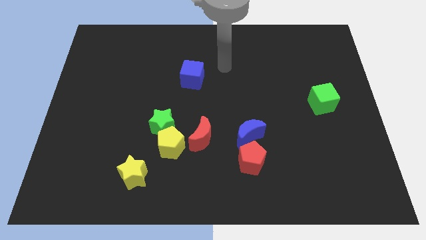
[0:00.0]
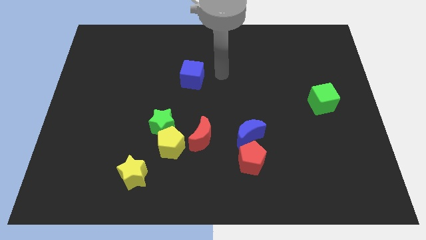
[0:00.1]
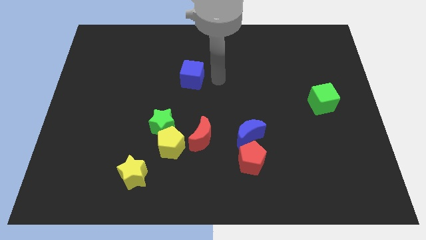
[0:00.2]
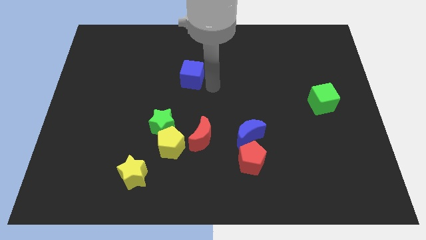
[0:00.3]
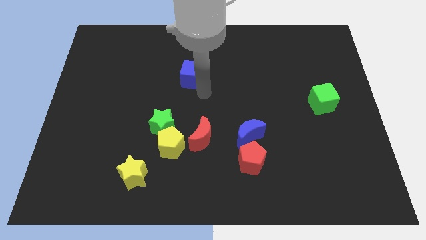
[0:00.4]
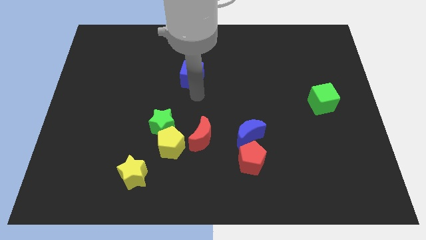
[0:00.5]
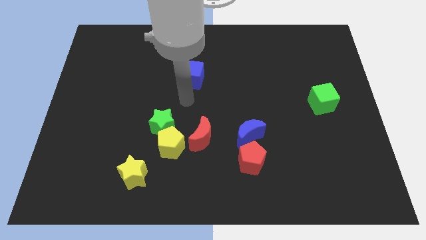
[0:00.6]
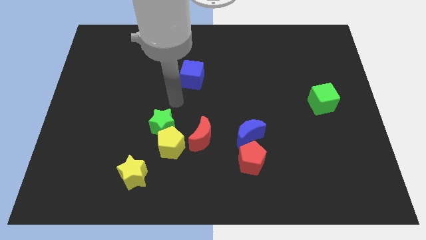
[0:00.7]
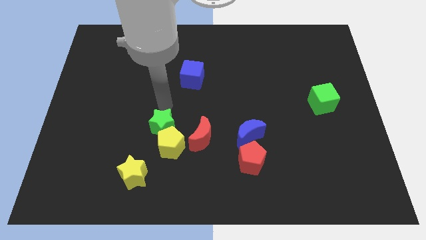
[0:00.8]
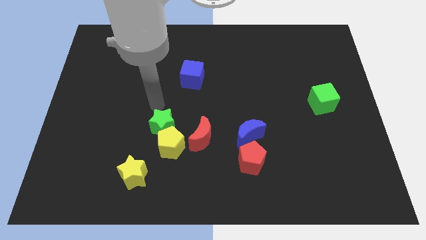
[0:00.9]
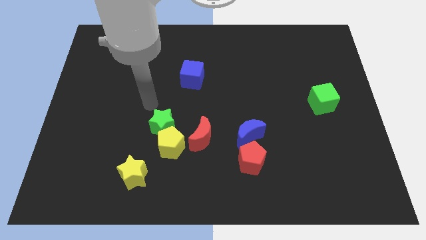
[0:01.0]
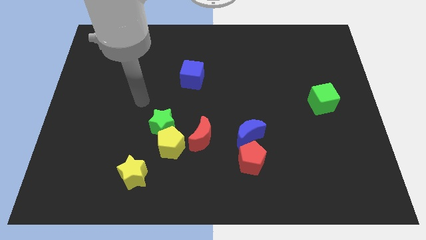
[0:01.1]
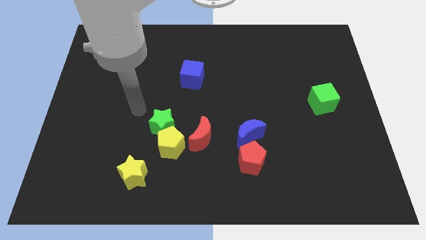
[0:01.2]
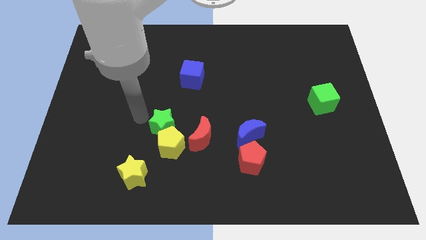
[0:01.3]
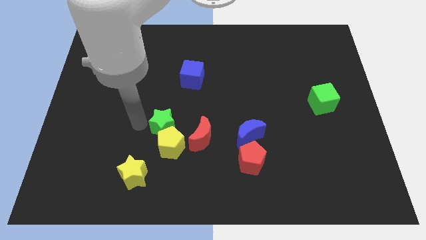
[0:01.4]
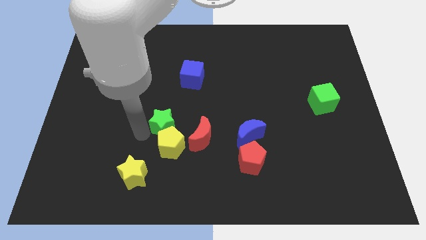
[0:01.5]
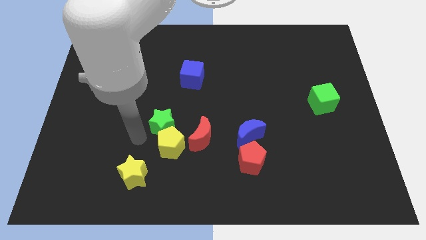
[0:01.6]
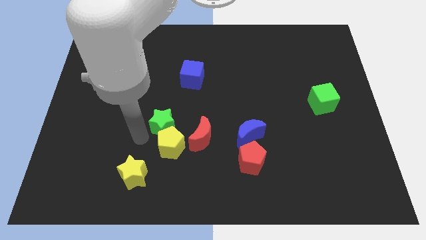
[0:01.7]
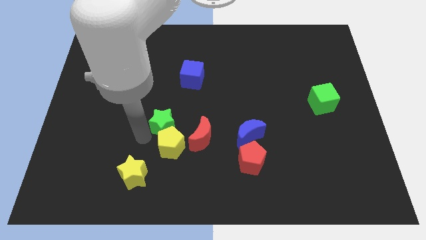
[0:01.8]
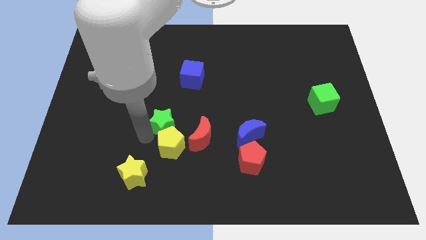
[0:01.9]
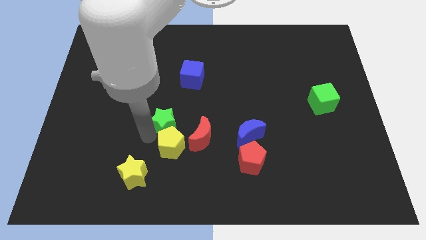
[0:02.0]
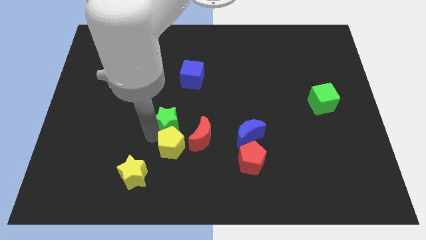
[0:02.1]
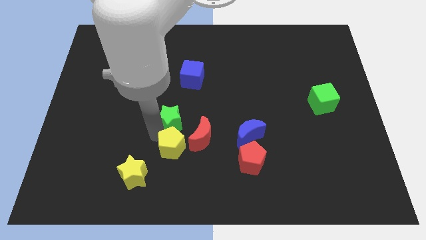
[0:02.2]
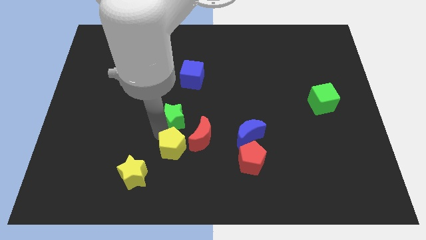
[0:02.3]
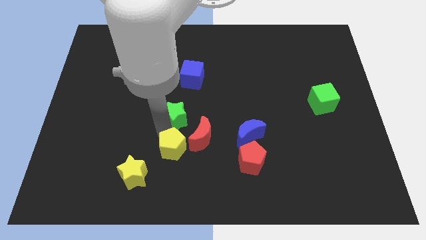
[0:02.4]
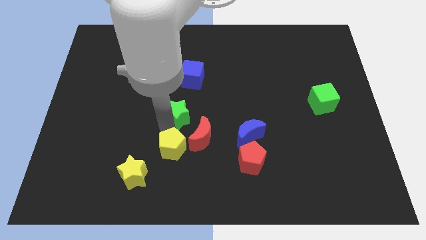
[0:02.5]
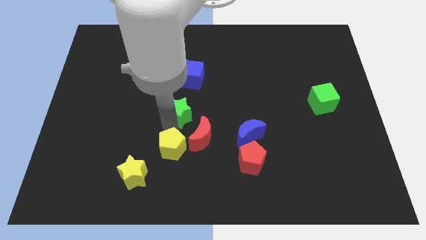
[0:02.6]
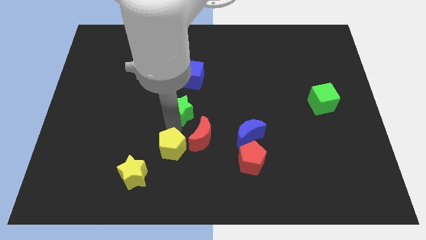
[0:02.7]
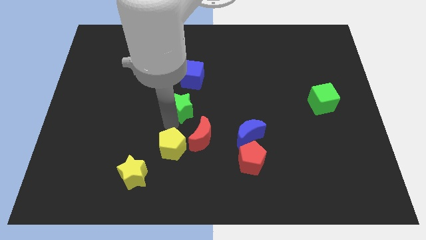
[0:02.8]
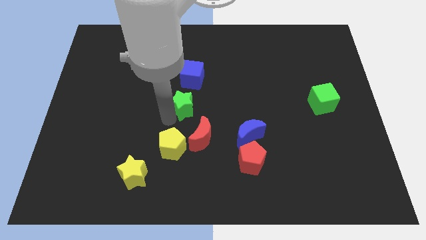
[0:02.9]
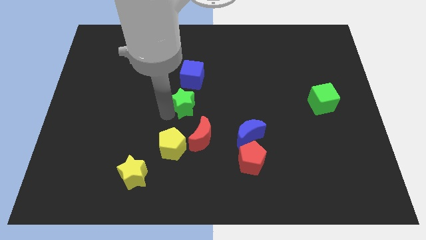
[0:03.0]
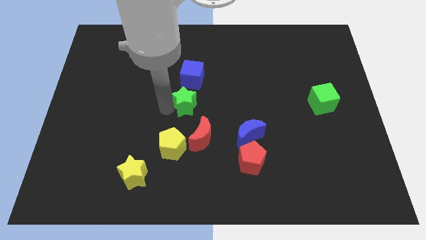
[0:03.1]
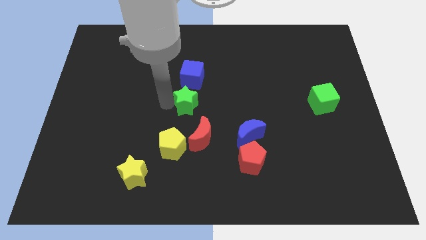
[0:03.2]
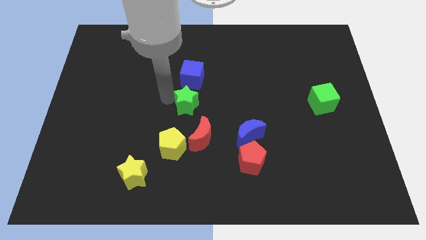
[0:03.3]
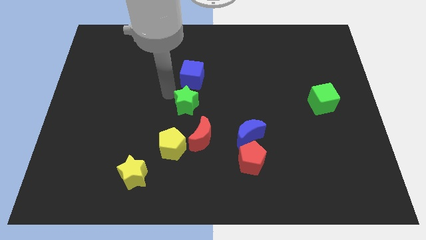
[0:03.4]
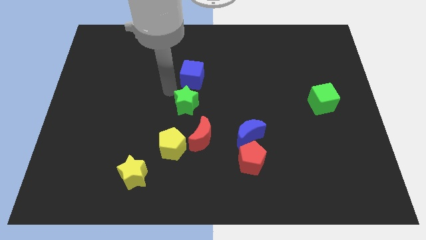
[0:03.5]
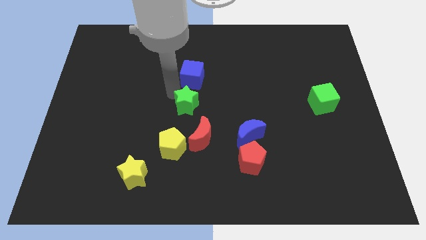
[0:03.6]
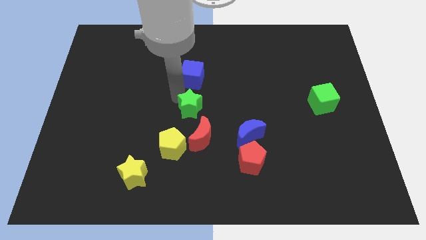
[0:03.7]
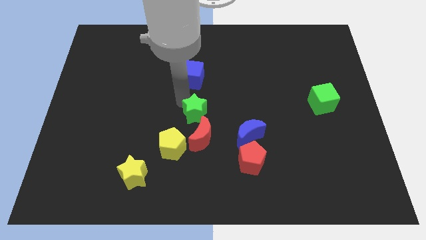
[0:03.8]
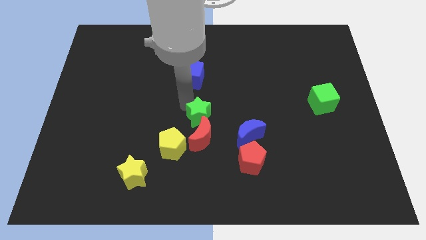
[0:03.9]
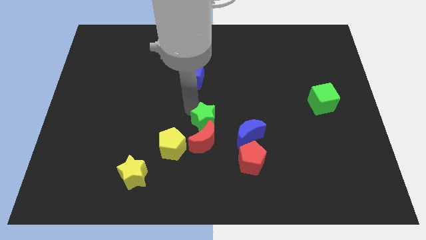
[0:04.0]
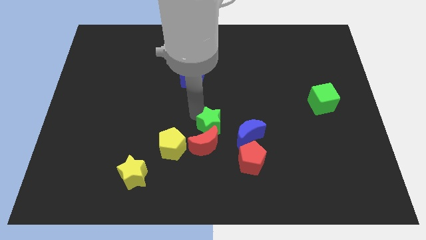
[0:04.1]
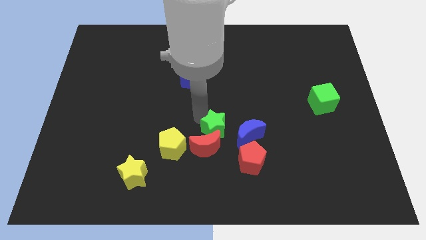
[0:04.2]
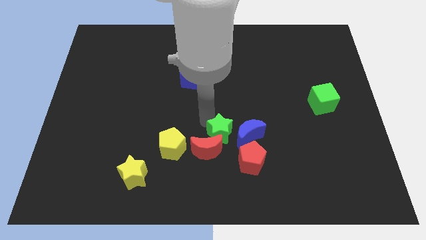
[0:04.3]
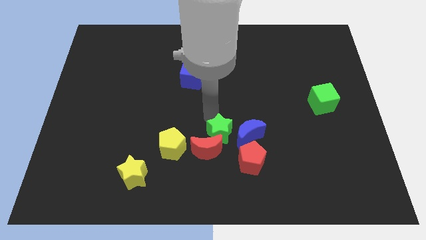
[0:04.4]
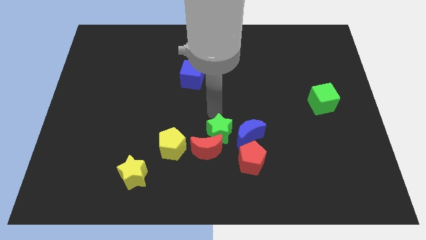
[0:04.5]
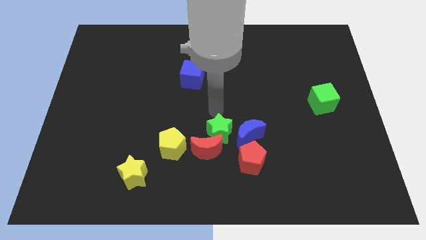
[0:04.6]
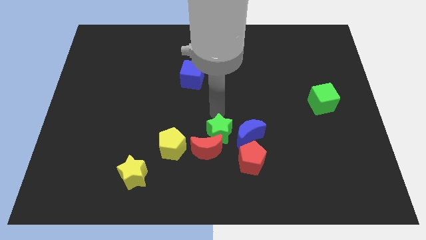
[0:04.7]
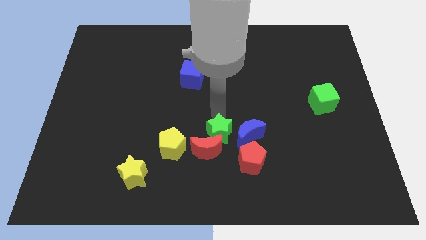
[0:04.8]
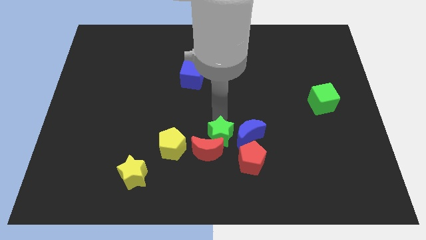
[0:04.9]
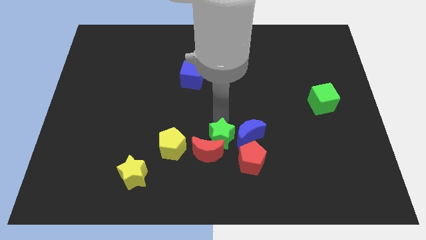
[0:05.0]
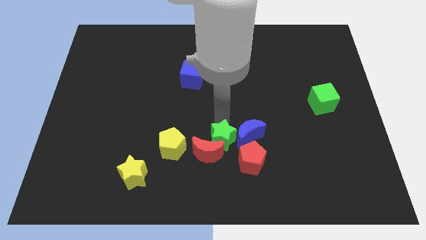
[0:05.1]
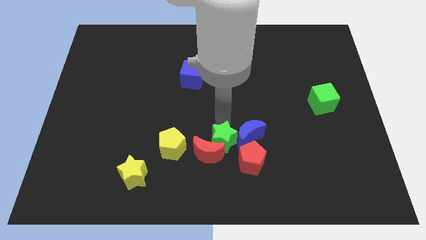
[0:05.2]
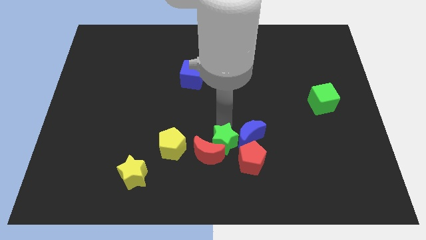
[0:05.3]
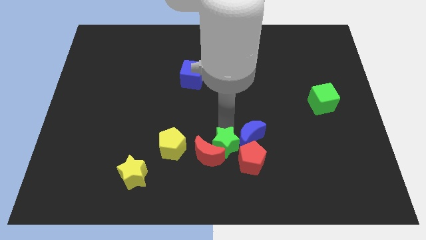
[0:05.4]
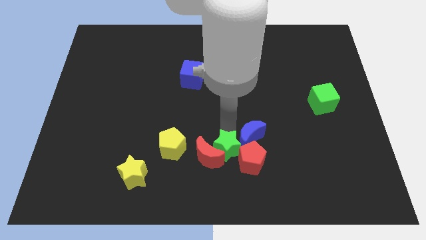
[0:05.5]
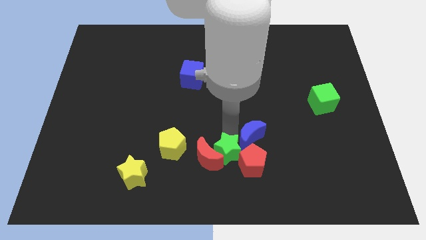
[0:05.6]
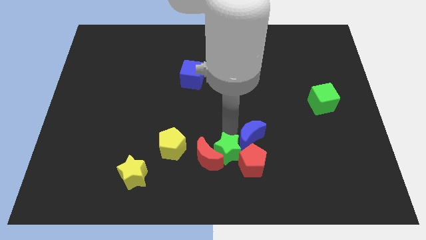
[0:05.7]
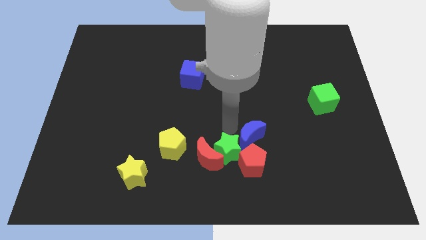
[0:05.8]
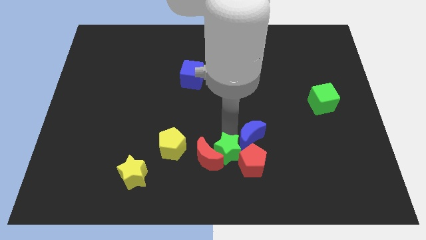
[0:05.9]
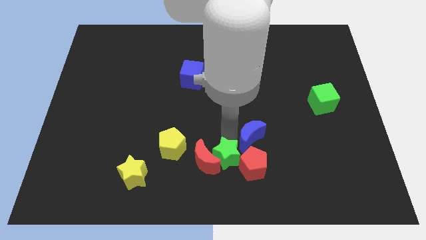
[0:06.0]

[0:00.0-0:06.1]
put the green star to the bottom

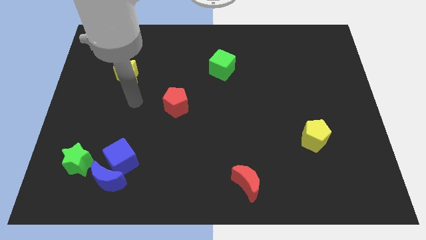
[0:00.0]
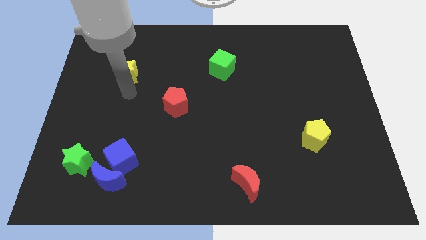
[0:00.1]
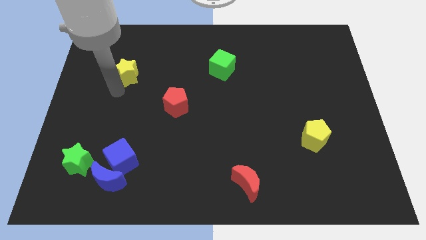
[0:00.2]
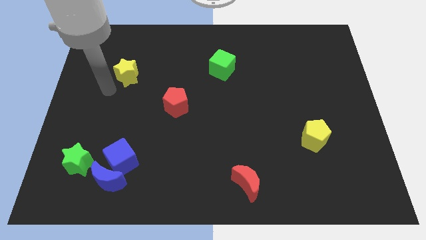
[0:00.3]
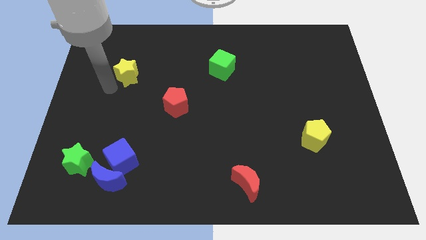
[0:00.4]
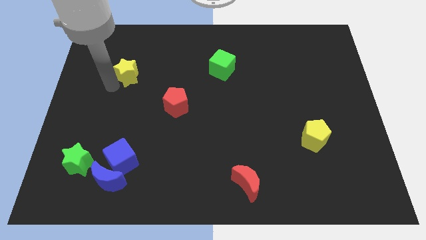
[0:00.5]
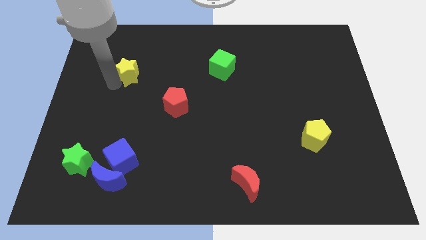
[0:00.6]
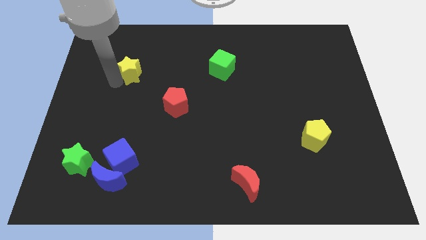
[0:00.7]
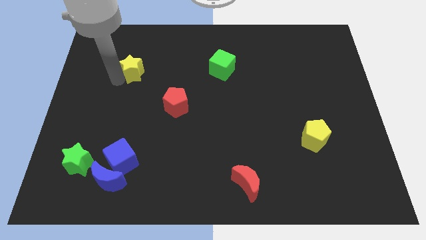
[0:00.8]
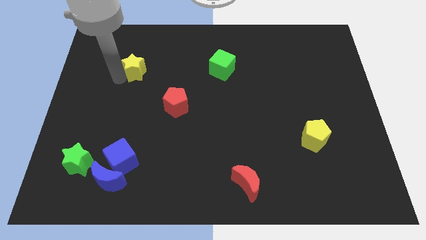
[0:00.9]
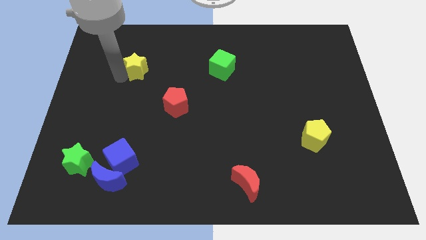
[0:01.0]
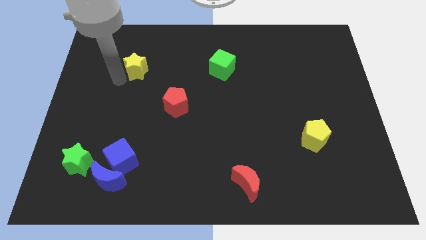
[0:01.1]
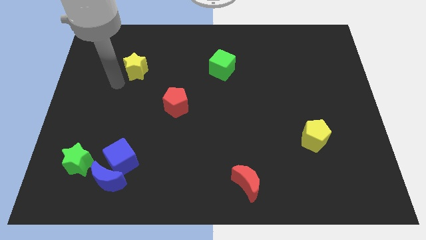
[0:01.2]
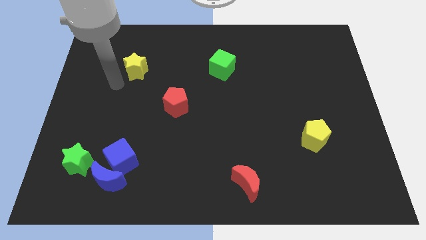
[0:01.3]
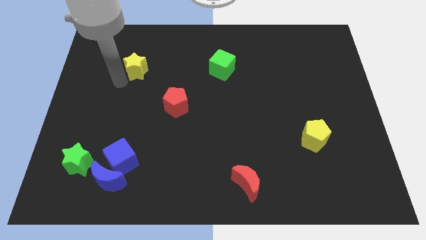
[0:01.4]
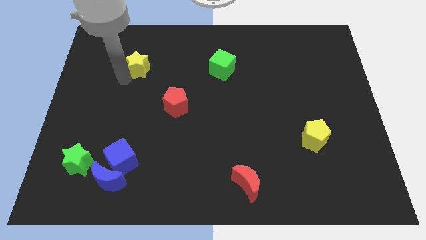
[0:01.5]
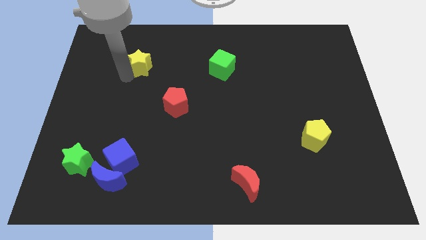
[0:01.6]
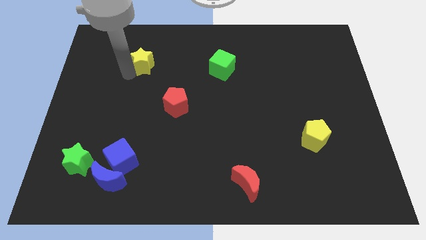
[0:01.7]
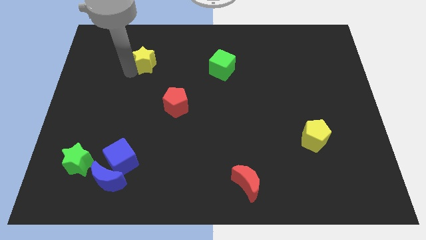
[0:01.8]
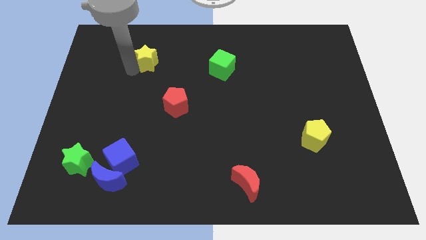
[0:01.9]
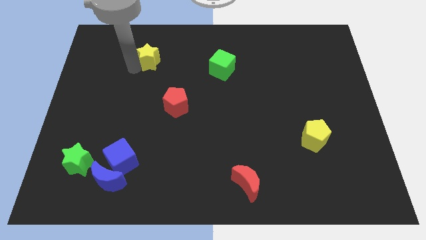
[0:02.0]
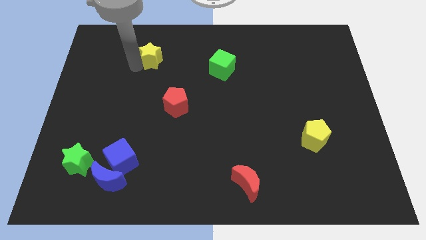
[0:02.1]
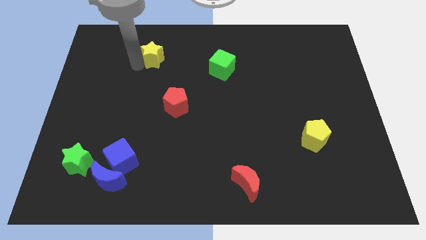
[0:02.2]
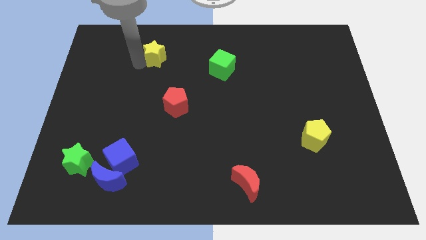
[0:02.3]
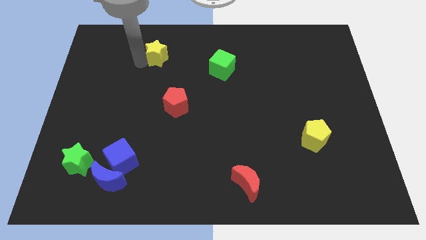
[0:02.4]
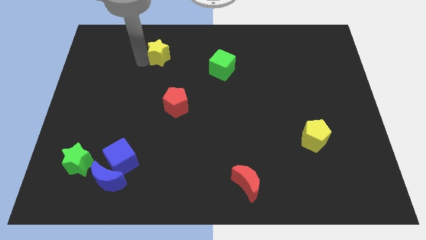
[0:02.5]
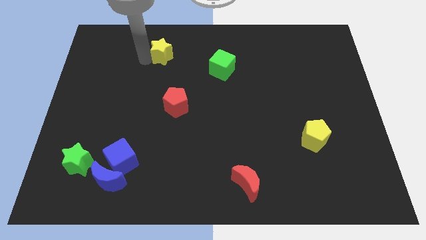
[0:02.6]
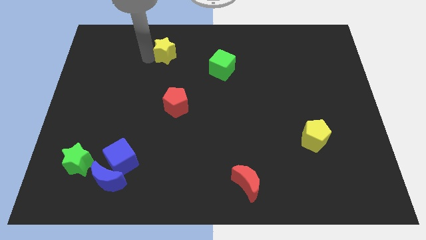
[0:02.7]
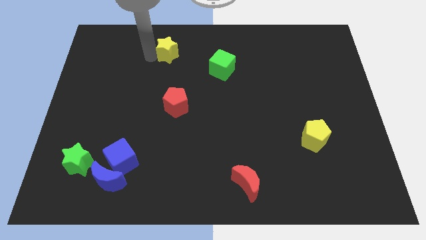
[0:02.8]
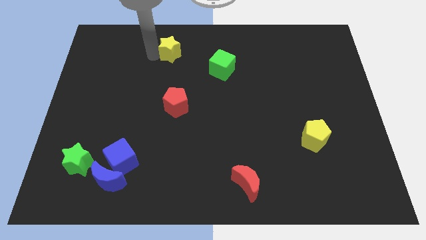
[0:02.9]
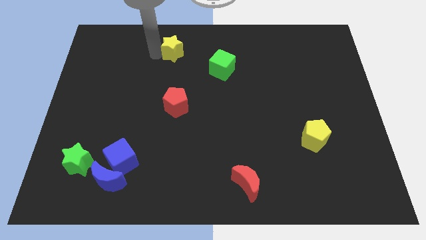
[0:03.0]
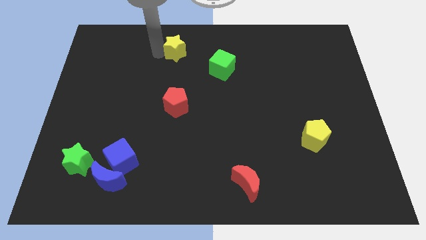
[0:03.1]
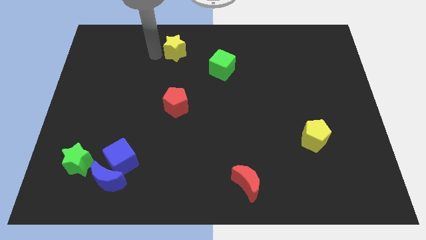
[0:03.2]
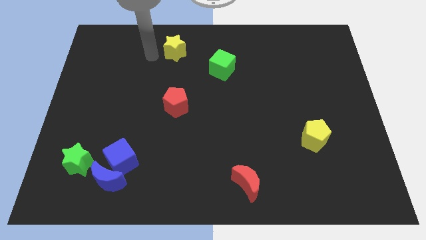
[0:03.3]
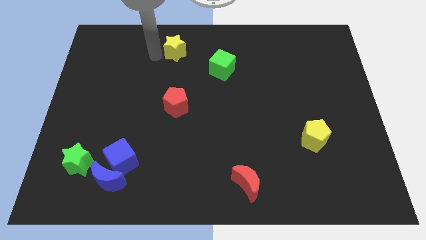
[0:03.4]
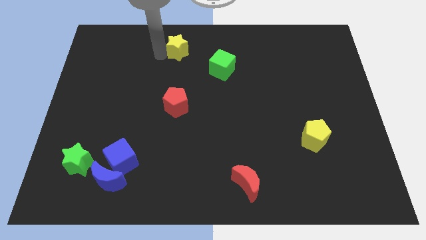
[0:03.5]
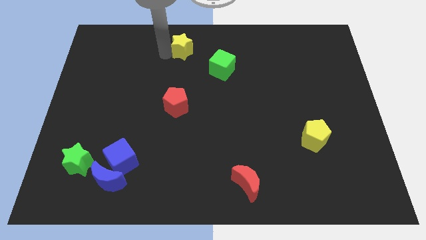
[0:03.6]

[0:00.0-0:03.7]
move the yellow star to the top side
